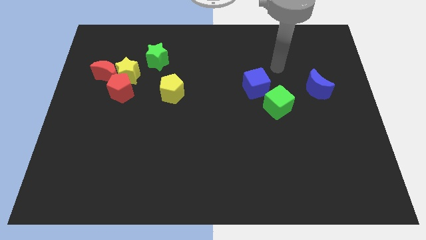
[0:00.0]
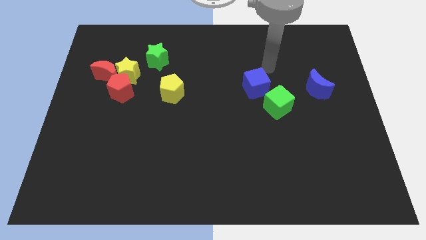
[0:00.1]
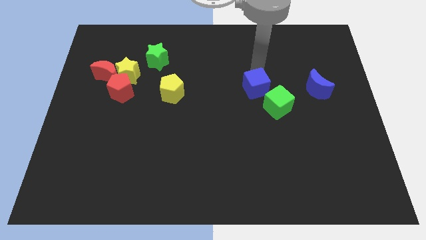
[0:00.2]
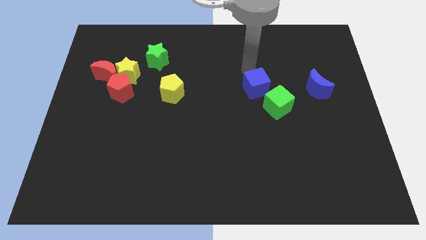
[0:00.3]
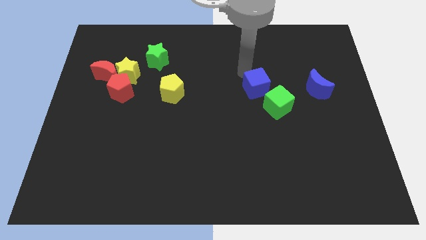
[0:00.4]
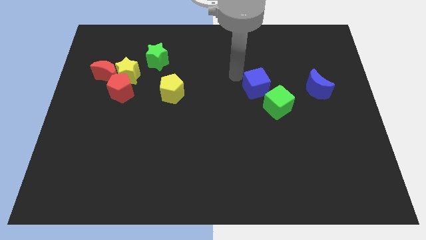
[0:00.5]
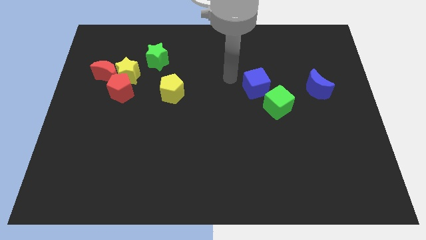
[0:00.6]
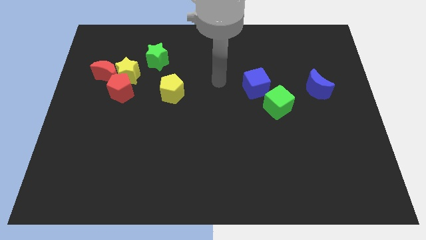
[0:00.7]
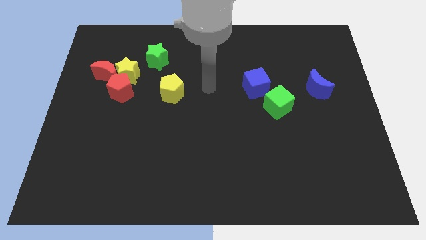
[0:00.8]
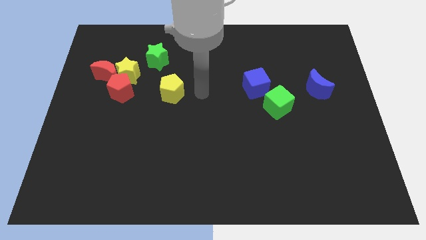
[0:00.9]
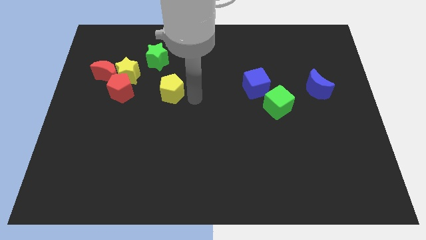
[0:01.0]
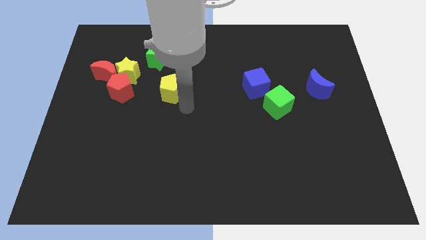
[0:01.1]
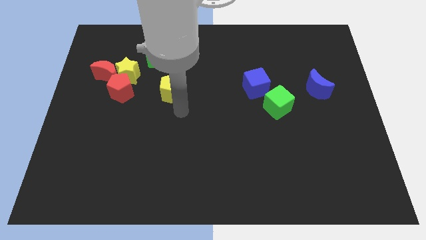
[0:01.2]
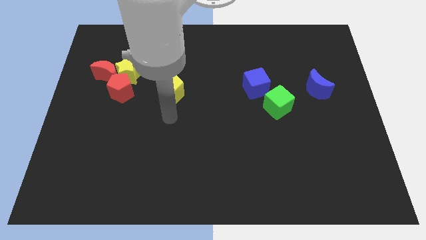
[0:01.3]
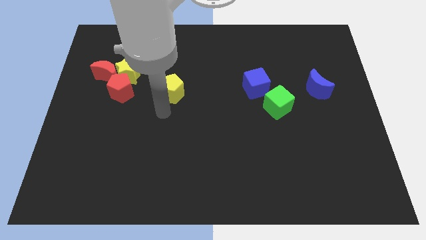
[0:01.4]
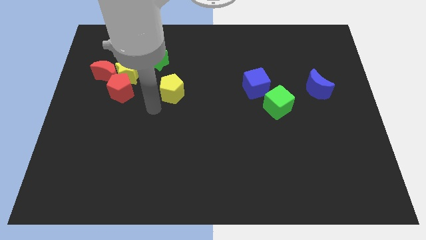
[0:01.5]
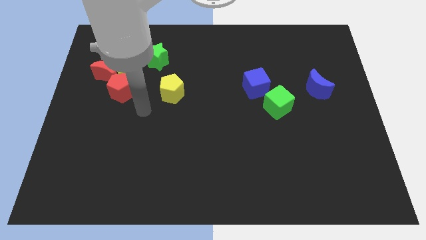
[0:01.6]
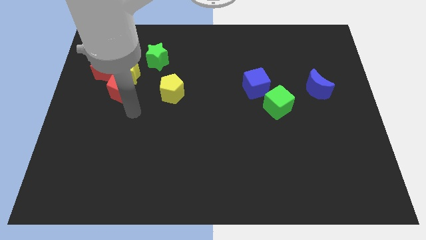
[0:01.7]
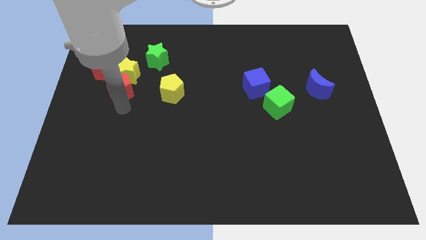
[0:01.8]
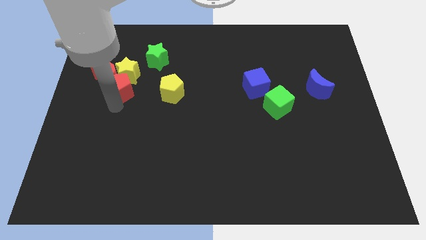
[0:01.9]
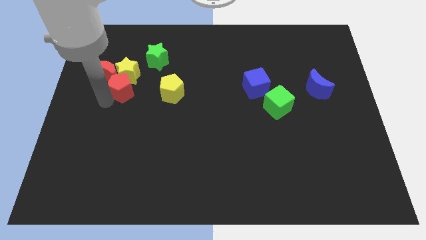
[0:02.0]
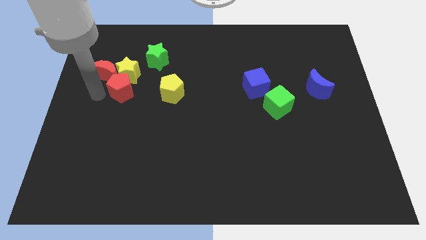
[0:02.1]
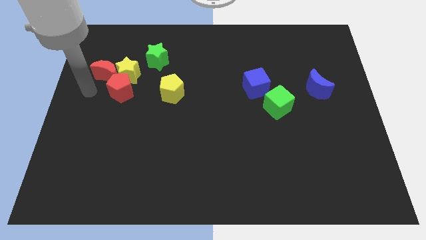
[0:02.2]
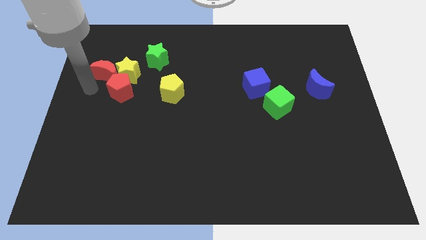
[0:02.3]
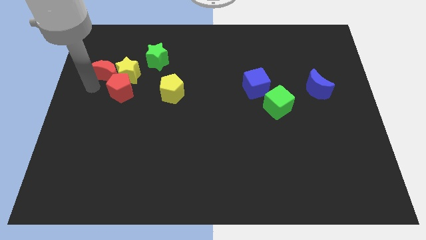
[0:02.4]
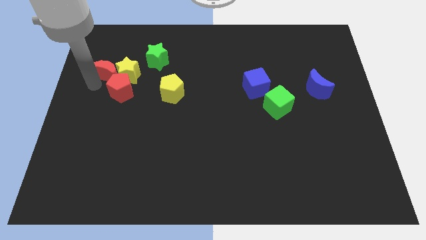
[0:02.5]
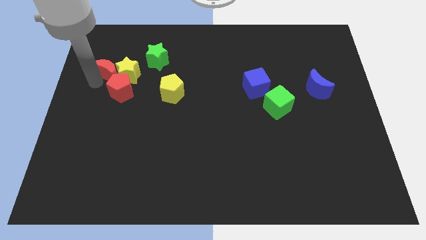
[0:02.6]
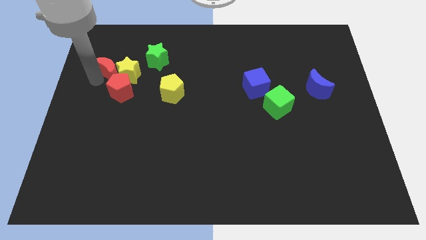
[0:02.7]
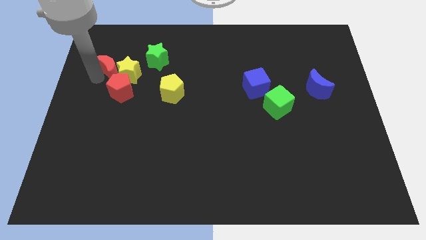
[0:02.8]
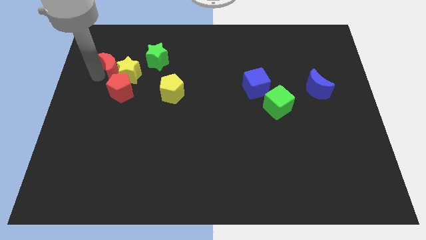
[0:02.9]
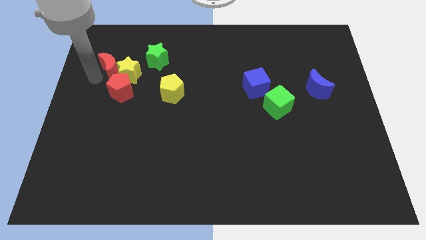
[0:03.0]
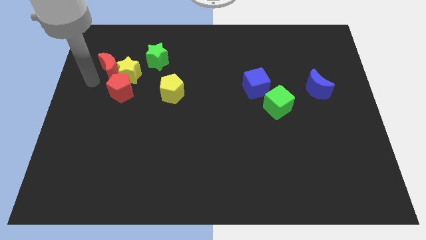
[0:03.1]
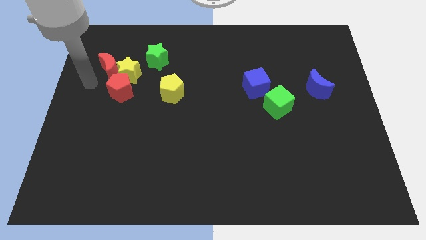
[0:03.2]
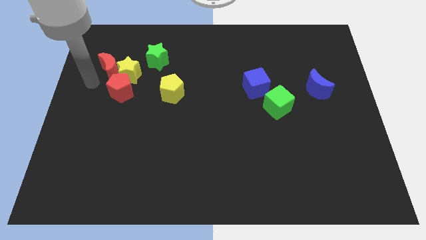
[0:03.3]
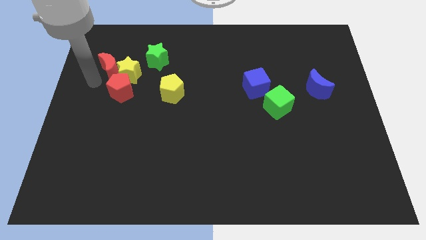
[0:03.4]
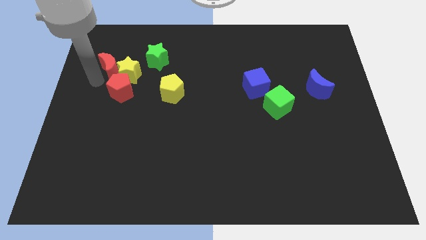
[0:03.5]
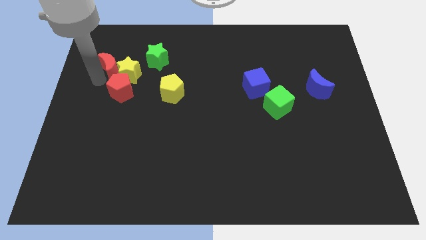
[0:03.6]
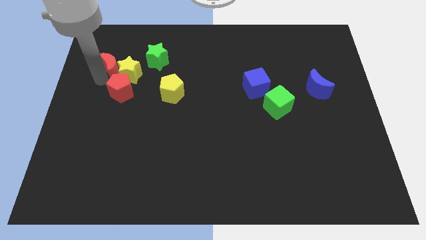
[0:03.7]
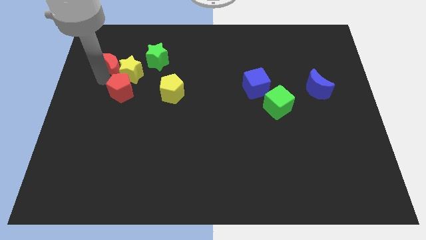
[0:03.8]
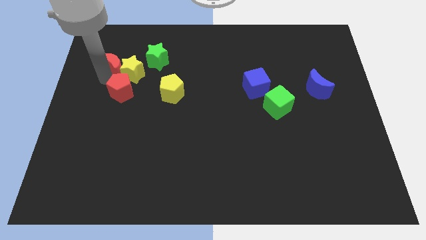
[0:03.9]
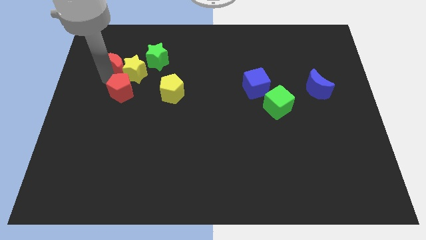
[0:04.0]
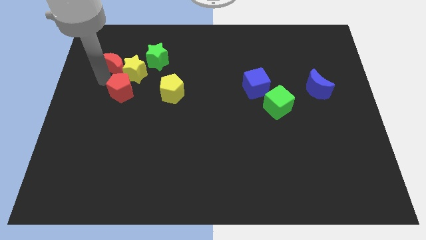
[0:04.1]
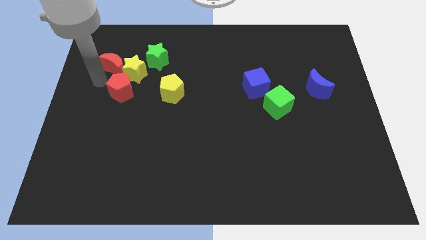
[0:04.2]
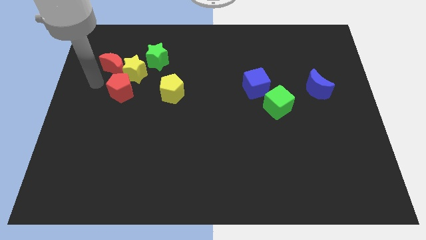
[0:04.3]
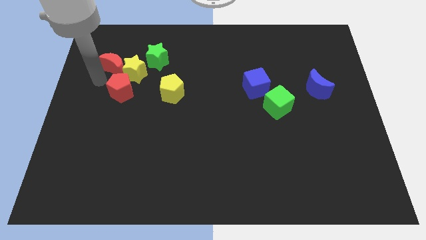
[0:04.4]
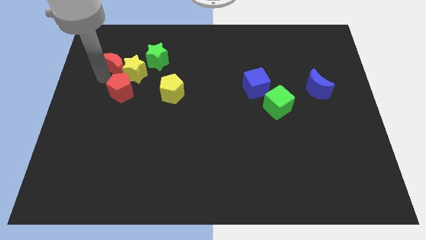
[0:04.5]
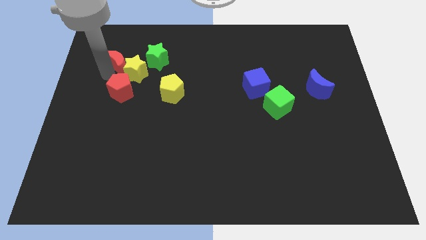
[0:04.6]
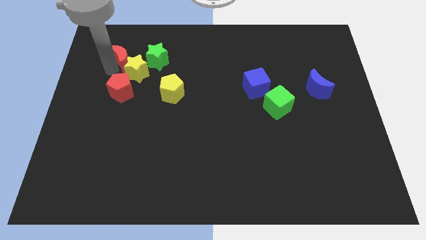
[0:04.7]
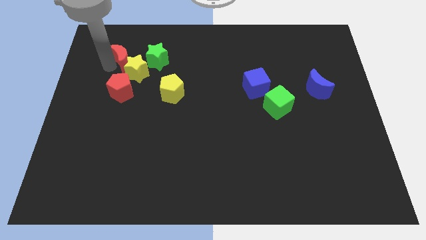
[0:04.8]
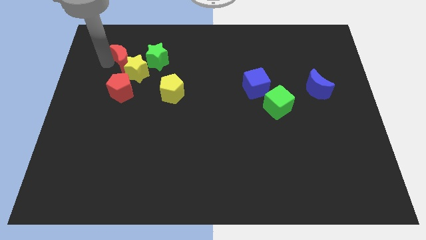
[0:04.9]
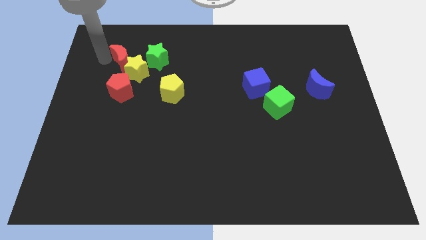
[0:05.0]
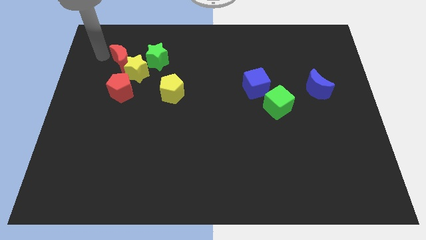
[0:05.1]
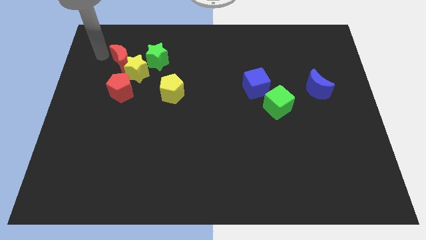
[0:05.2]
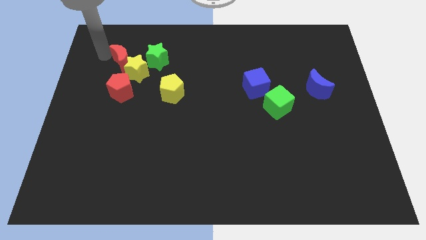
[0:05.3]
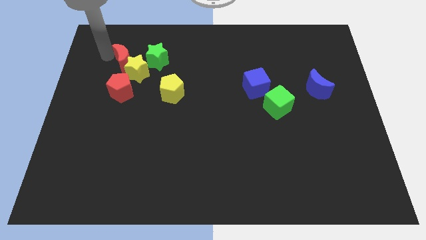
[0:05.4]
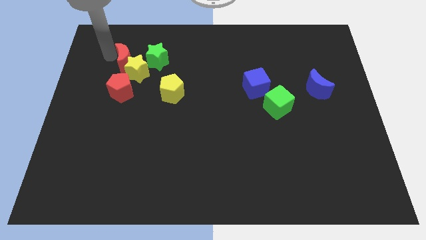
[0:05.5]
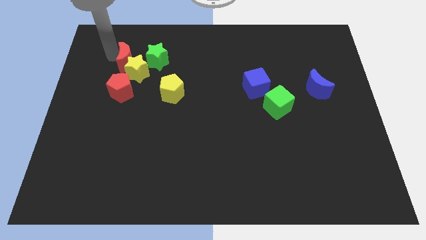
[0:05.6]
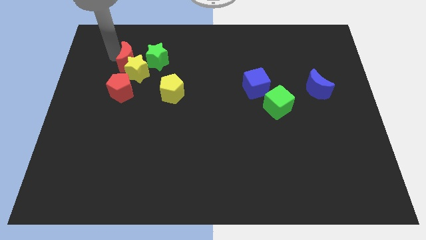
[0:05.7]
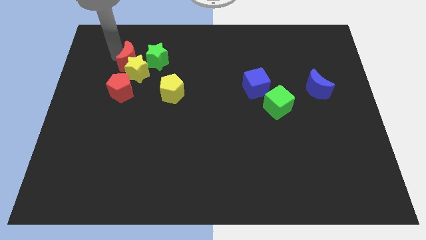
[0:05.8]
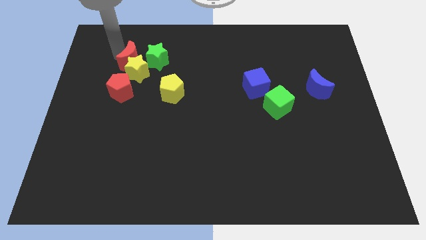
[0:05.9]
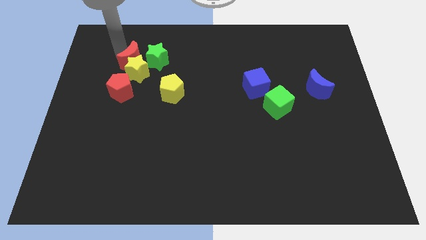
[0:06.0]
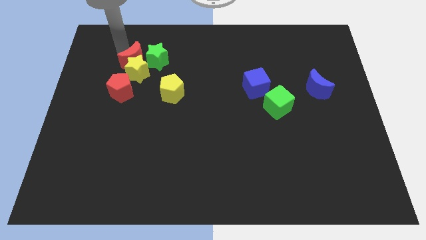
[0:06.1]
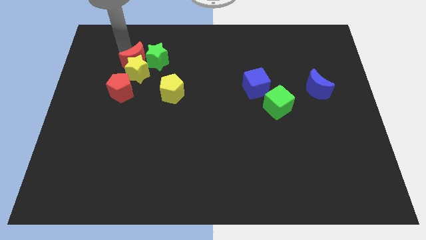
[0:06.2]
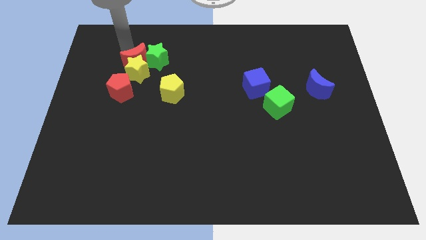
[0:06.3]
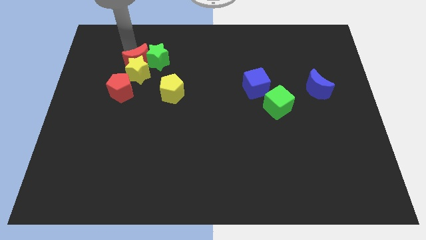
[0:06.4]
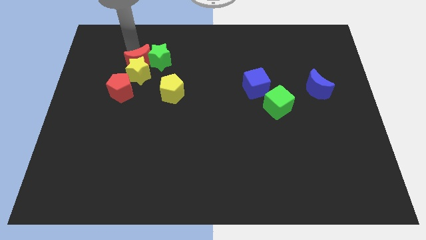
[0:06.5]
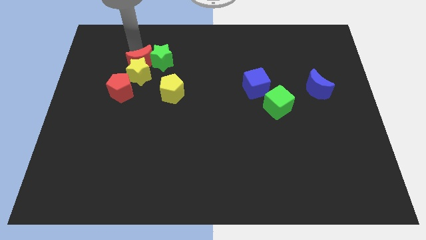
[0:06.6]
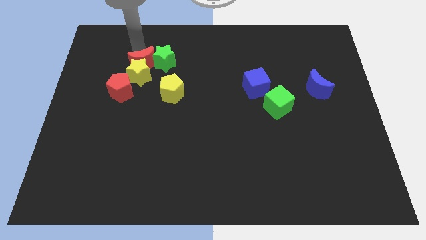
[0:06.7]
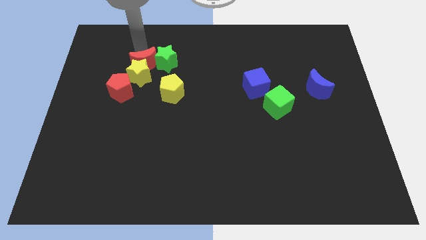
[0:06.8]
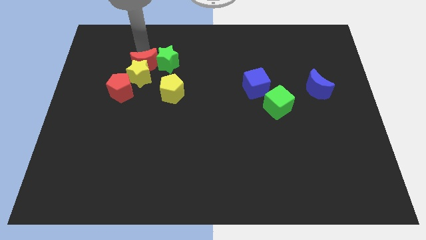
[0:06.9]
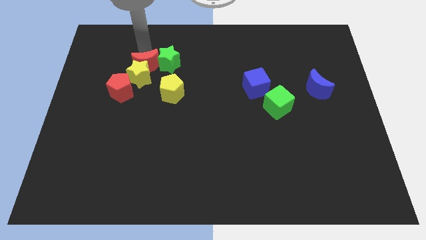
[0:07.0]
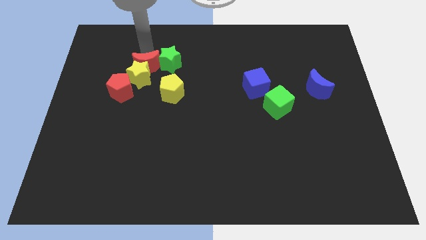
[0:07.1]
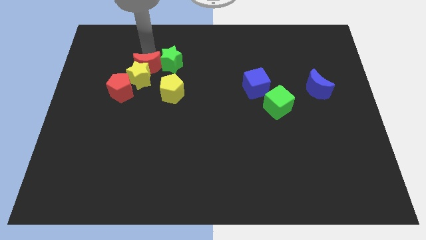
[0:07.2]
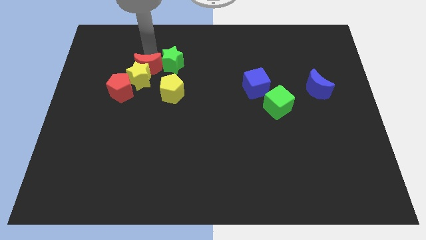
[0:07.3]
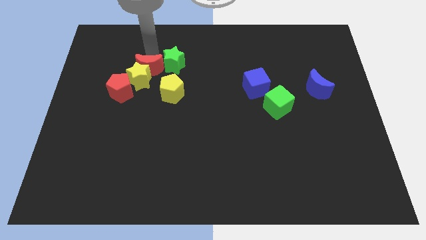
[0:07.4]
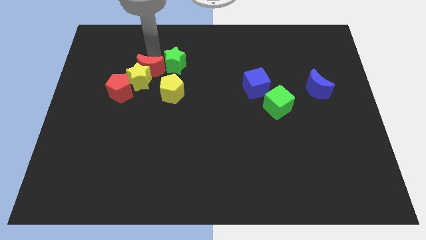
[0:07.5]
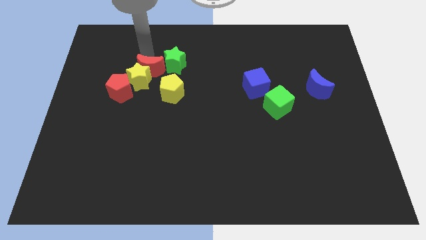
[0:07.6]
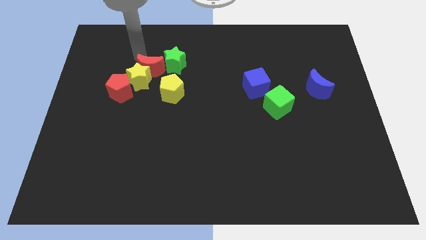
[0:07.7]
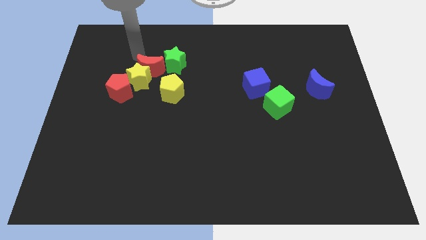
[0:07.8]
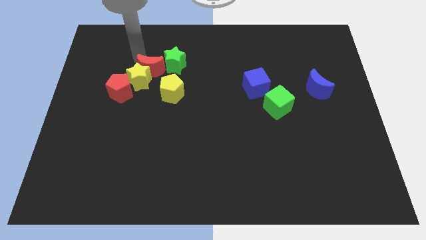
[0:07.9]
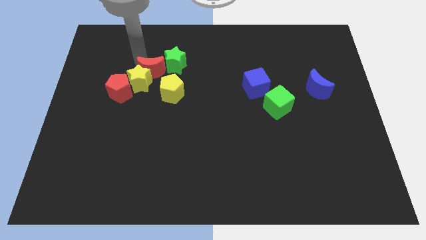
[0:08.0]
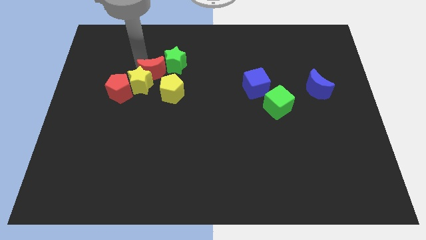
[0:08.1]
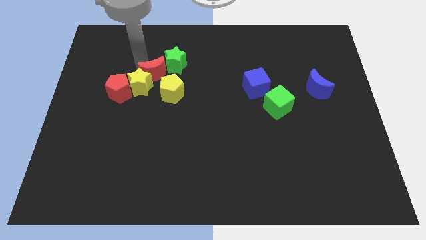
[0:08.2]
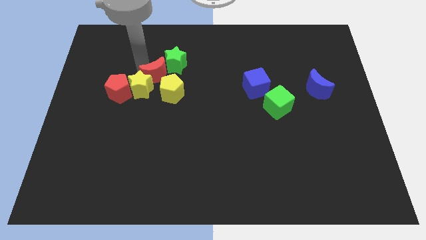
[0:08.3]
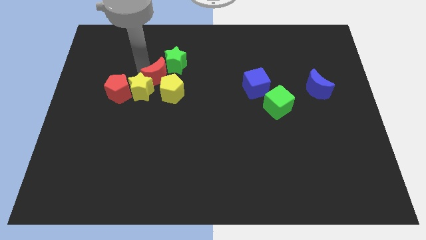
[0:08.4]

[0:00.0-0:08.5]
slide the red moon to the bottom of the green star
